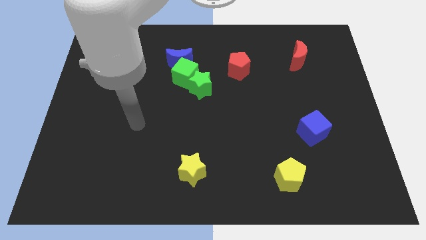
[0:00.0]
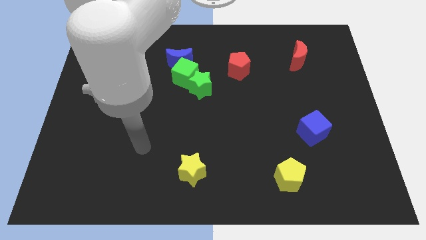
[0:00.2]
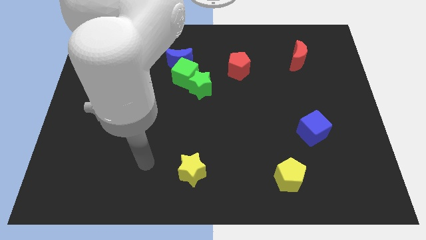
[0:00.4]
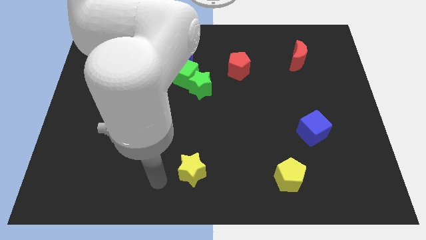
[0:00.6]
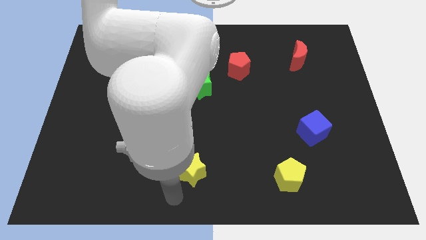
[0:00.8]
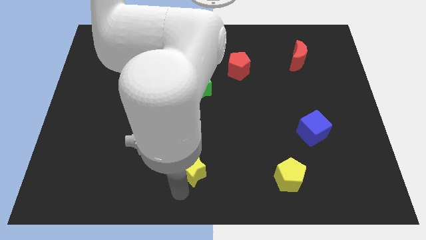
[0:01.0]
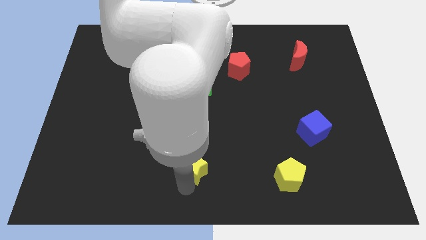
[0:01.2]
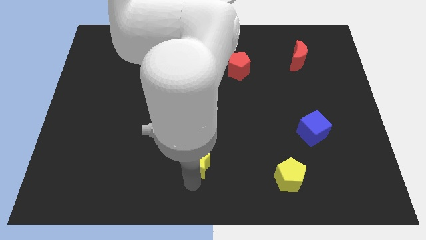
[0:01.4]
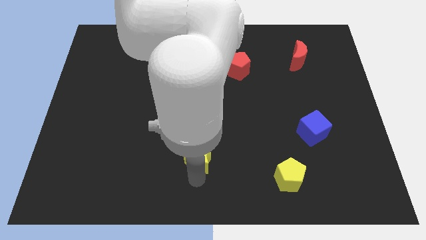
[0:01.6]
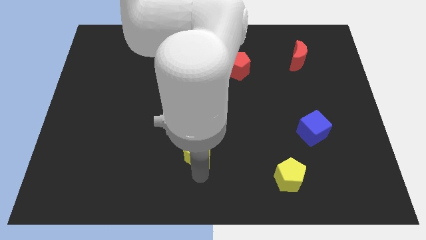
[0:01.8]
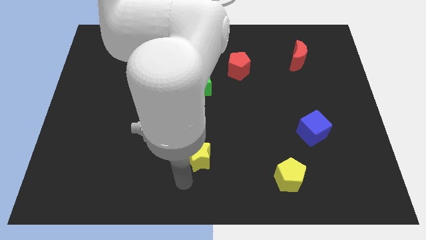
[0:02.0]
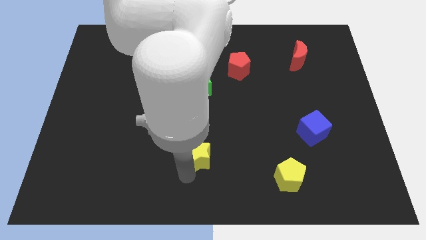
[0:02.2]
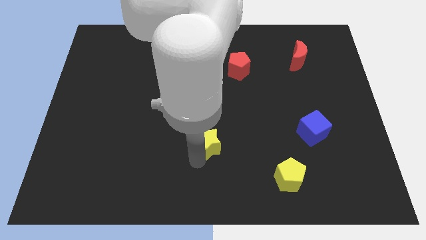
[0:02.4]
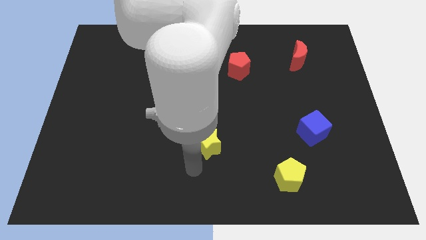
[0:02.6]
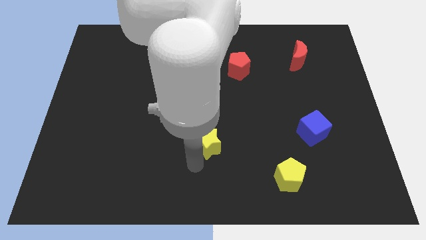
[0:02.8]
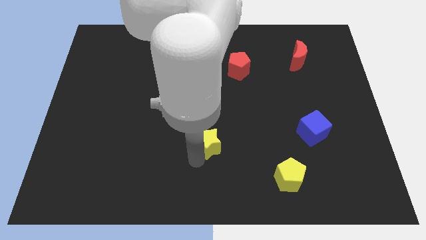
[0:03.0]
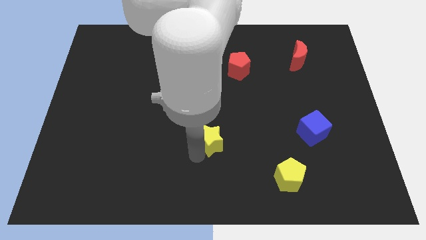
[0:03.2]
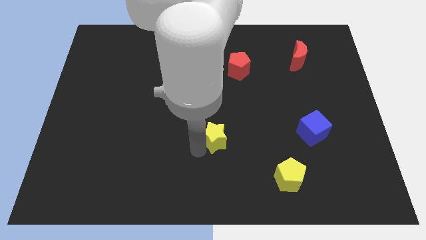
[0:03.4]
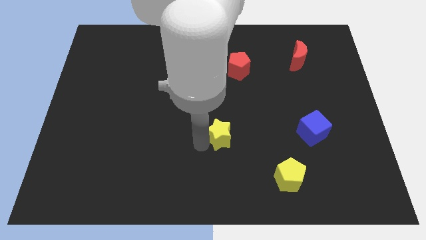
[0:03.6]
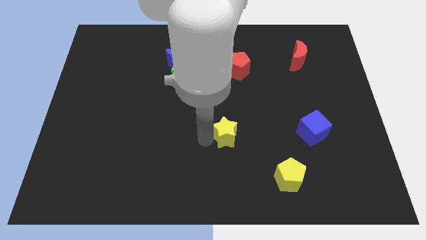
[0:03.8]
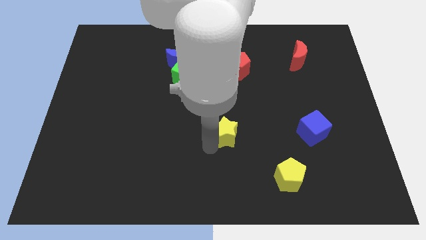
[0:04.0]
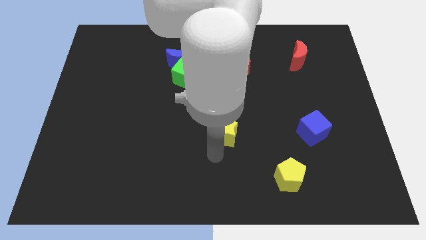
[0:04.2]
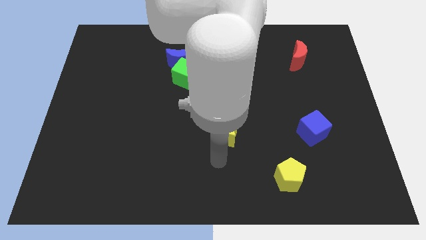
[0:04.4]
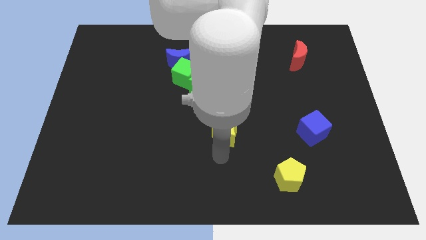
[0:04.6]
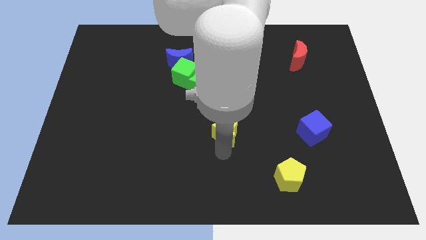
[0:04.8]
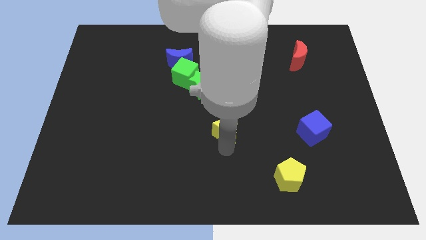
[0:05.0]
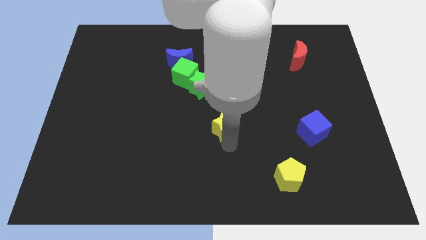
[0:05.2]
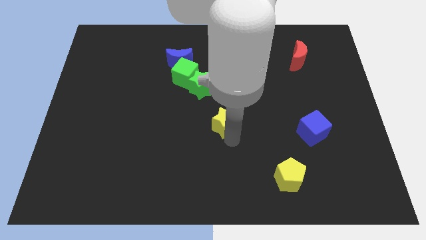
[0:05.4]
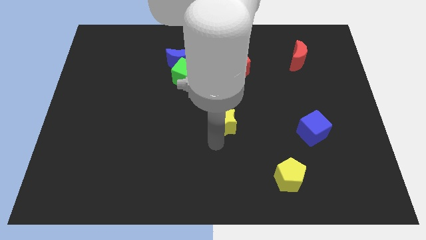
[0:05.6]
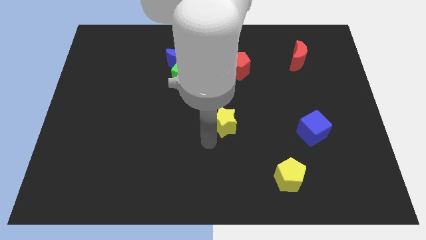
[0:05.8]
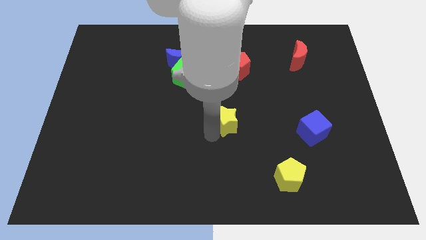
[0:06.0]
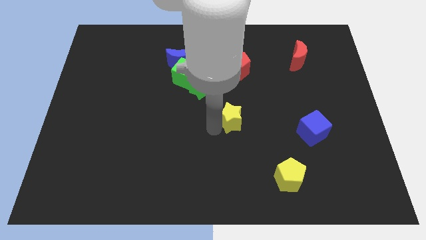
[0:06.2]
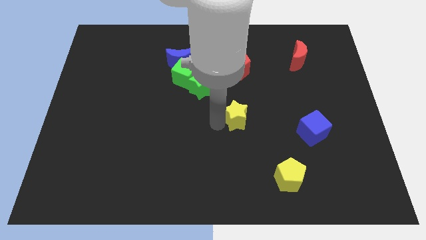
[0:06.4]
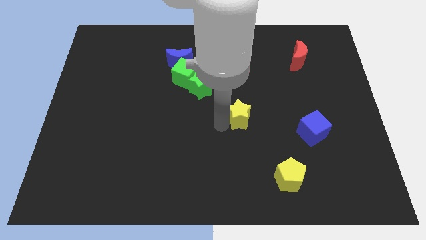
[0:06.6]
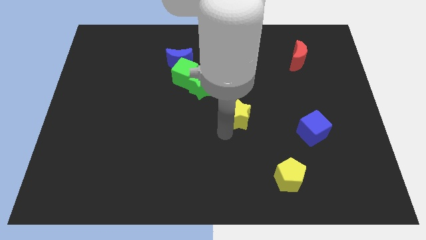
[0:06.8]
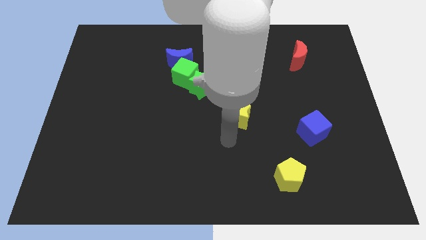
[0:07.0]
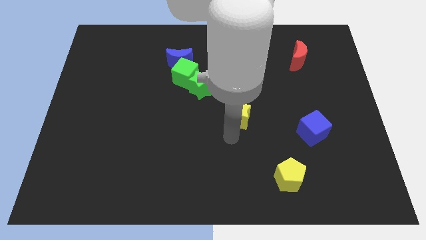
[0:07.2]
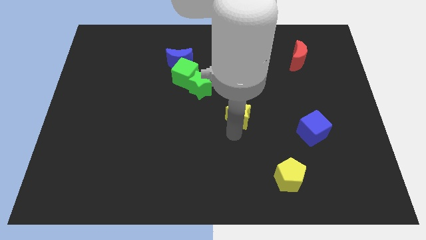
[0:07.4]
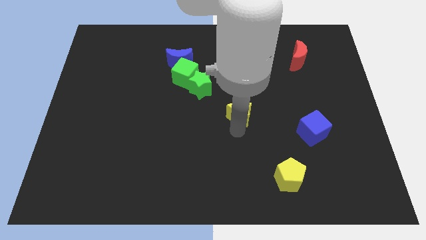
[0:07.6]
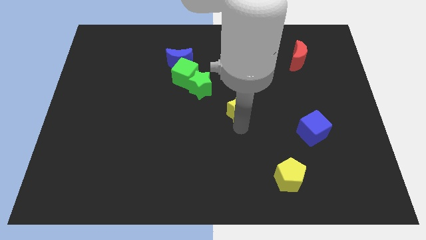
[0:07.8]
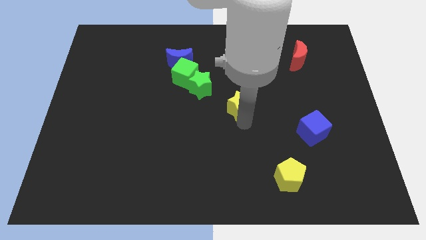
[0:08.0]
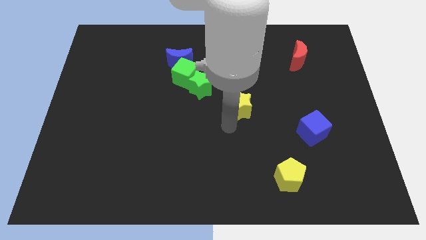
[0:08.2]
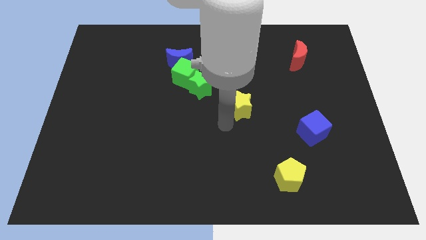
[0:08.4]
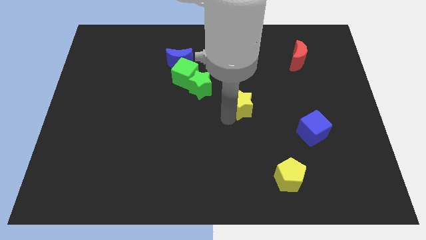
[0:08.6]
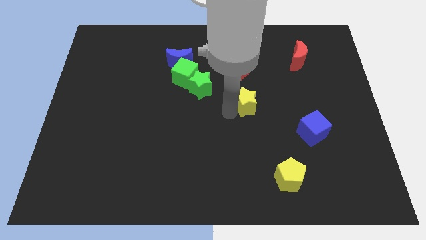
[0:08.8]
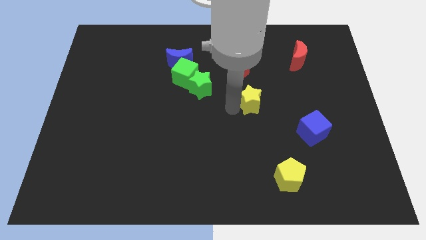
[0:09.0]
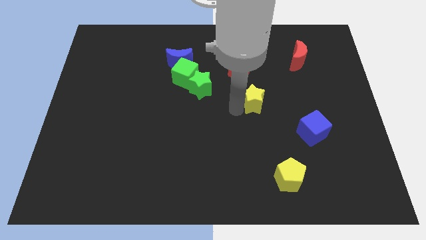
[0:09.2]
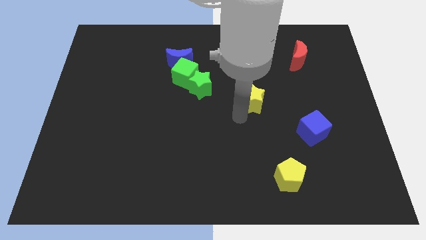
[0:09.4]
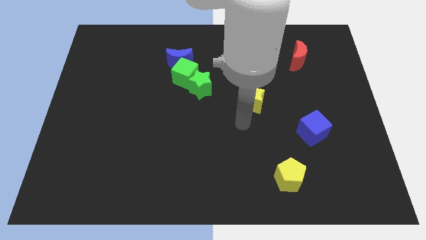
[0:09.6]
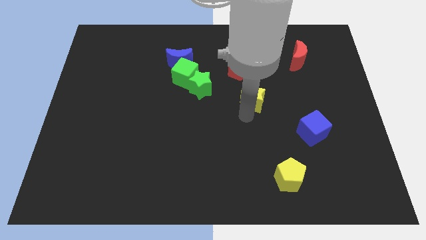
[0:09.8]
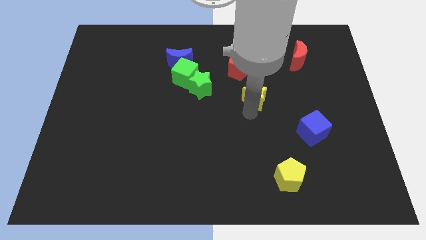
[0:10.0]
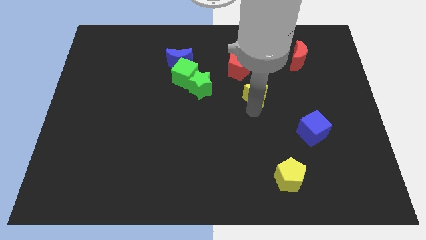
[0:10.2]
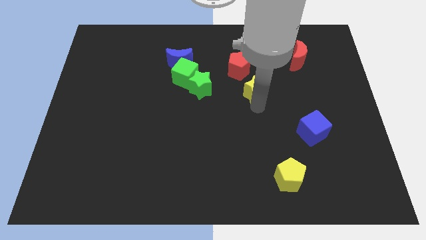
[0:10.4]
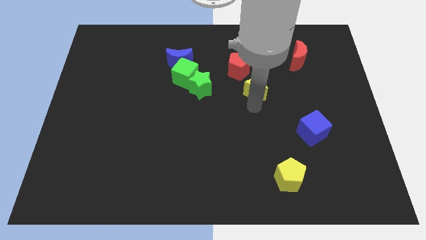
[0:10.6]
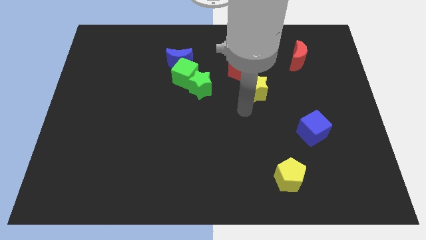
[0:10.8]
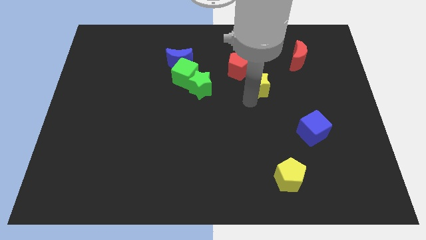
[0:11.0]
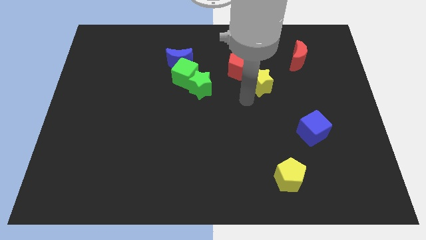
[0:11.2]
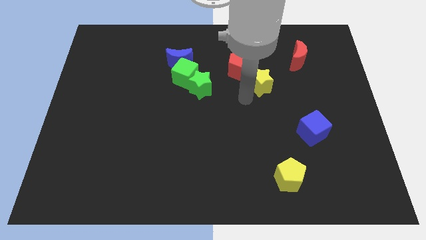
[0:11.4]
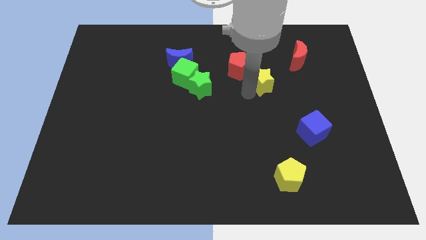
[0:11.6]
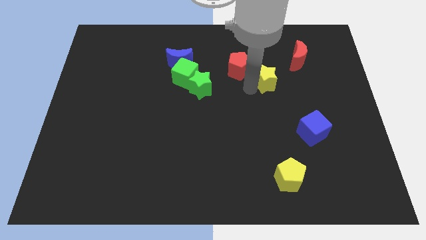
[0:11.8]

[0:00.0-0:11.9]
push the yellow star to the right side of the red pentagon

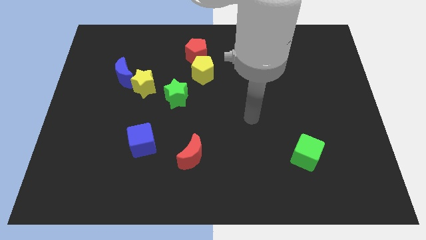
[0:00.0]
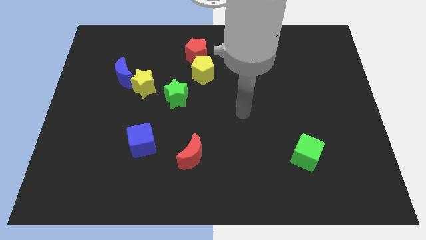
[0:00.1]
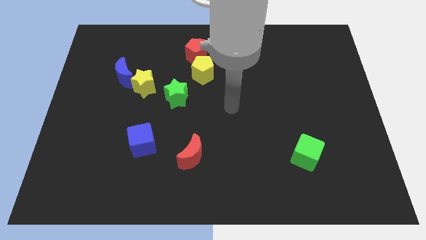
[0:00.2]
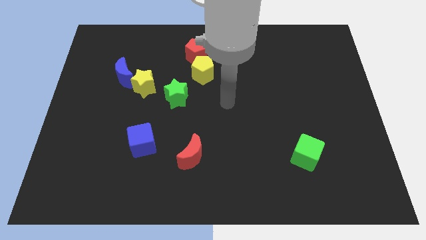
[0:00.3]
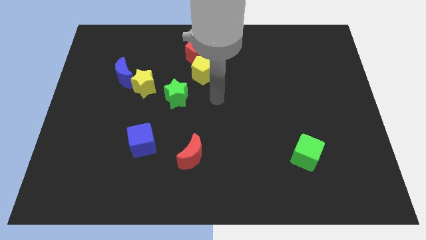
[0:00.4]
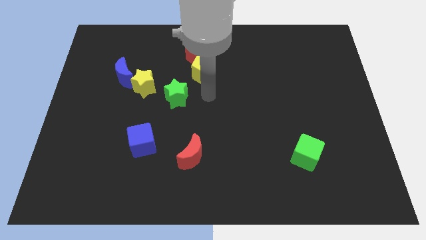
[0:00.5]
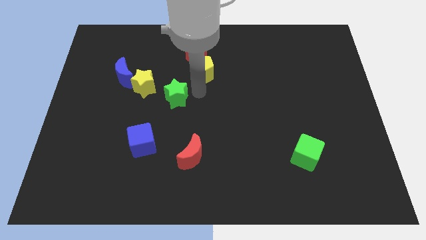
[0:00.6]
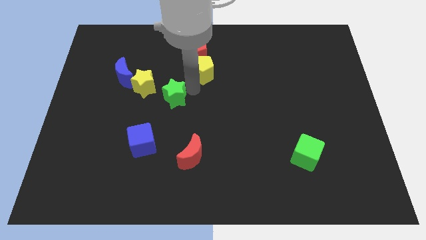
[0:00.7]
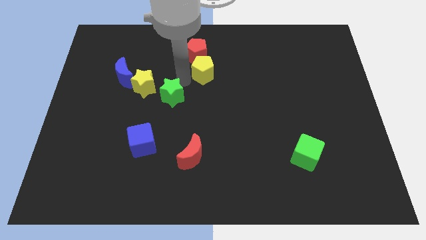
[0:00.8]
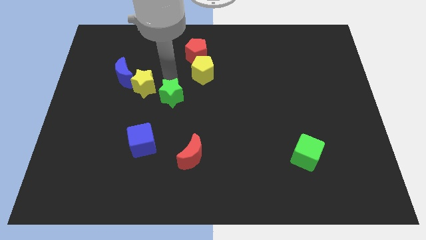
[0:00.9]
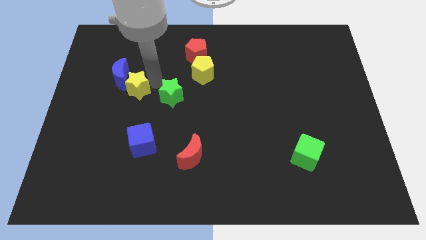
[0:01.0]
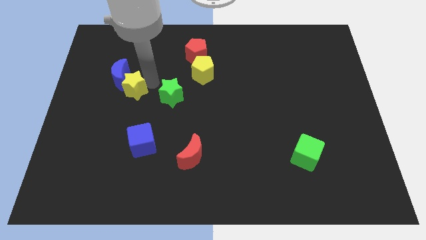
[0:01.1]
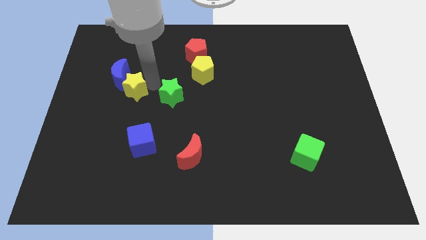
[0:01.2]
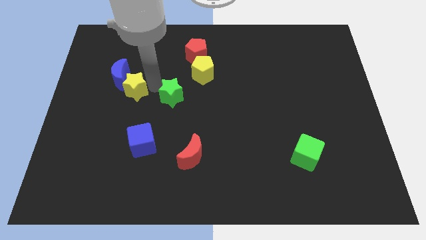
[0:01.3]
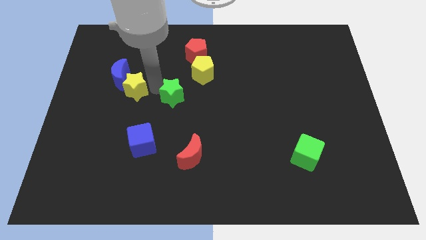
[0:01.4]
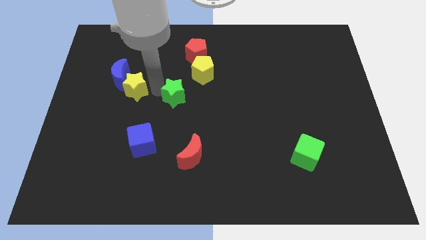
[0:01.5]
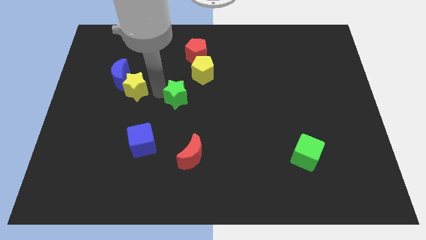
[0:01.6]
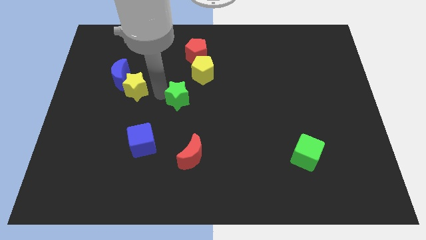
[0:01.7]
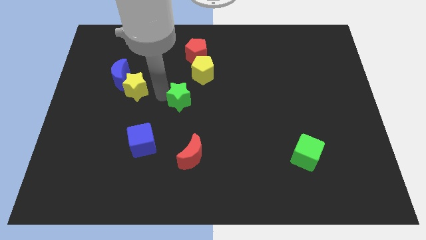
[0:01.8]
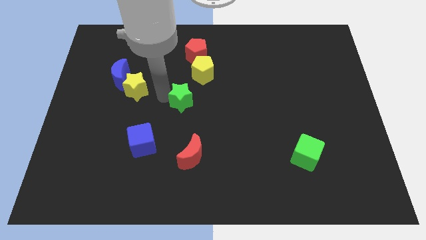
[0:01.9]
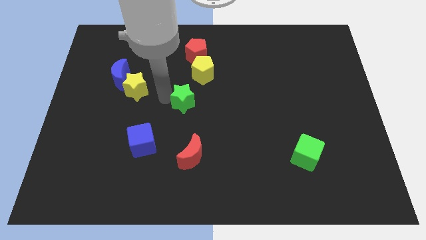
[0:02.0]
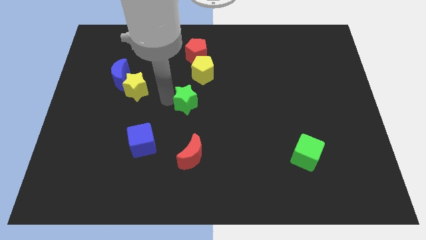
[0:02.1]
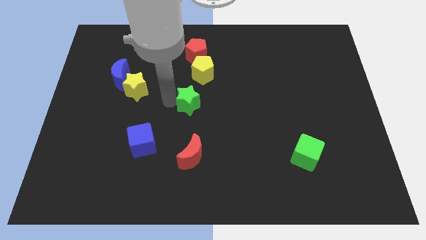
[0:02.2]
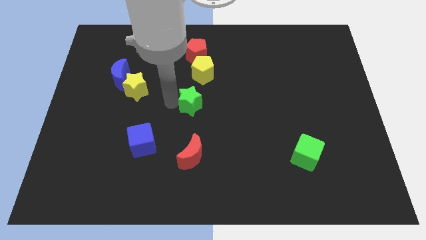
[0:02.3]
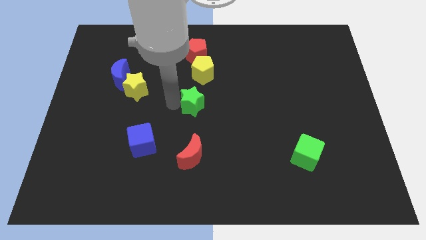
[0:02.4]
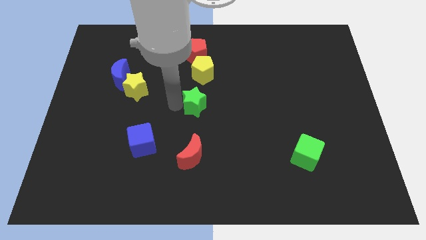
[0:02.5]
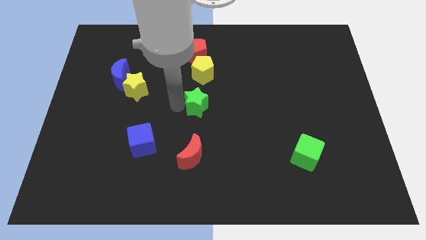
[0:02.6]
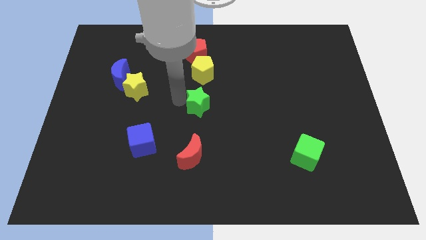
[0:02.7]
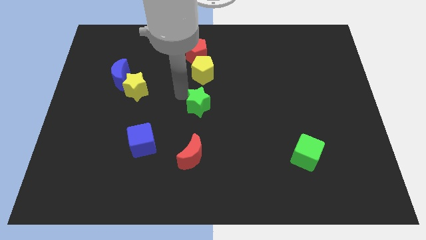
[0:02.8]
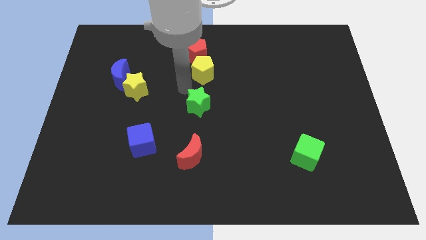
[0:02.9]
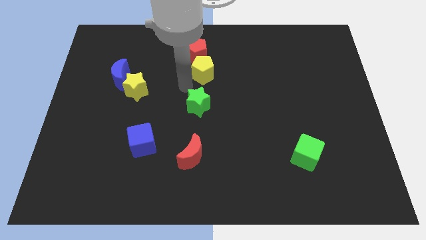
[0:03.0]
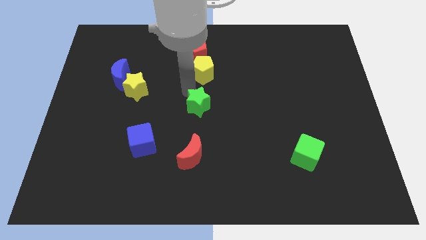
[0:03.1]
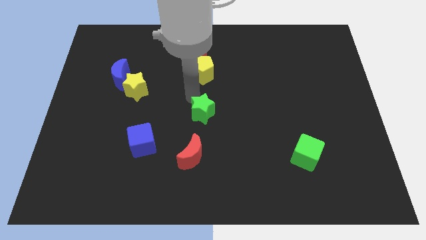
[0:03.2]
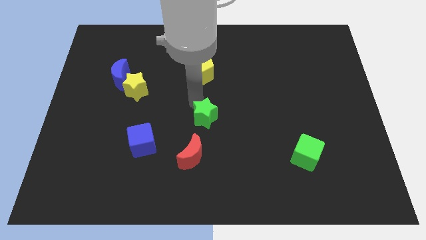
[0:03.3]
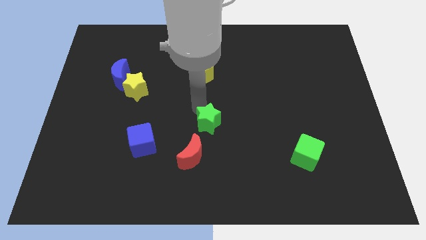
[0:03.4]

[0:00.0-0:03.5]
push the green star diagonally up and to the right of the red moon
